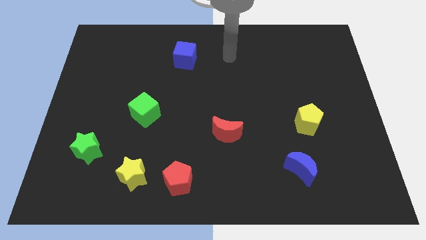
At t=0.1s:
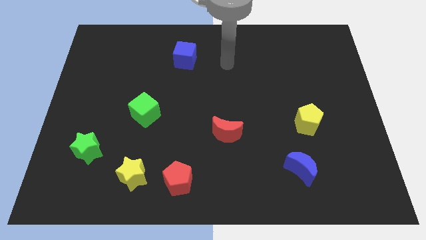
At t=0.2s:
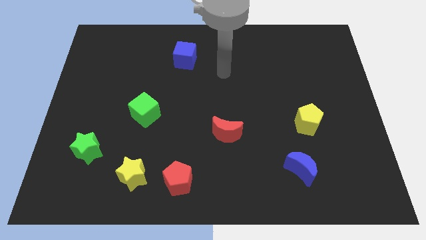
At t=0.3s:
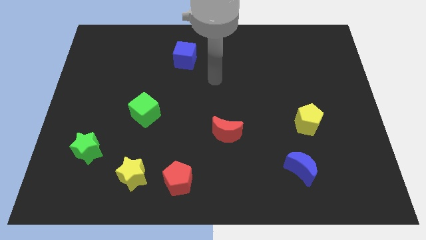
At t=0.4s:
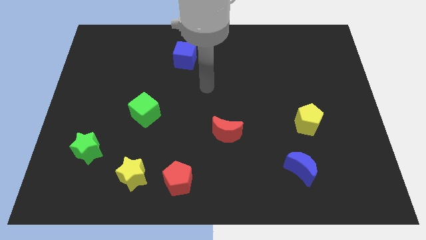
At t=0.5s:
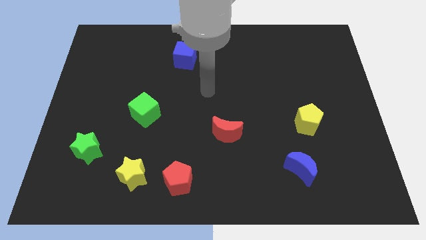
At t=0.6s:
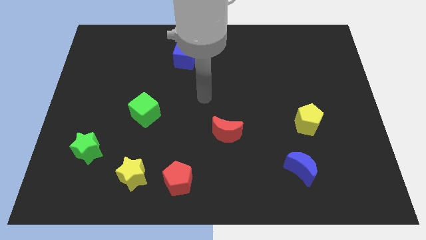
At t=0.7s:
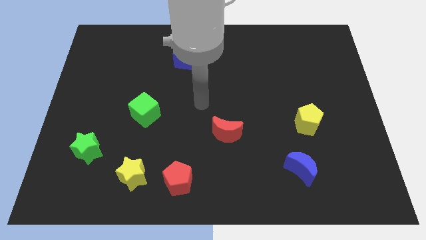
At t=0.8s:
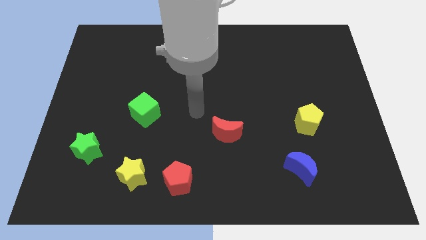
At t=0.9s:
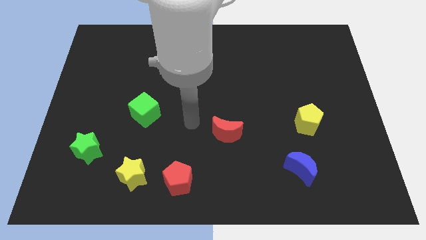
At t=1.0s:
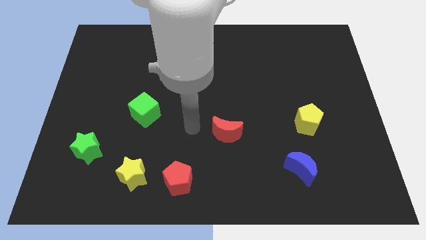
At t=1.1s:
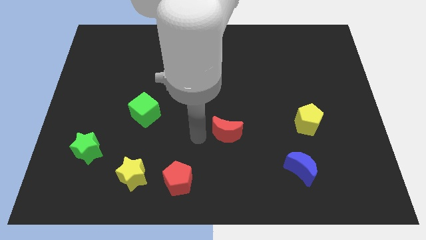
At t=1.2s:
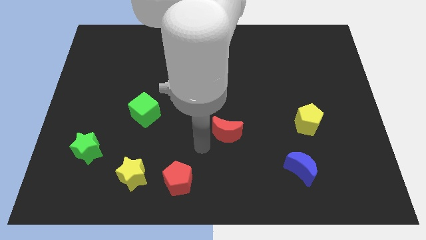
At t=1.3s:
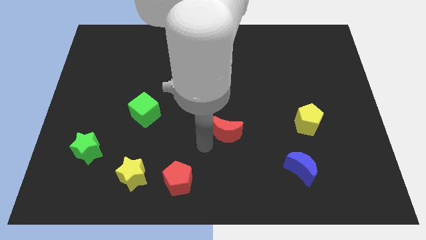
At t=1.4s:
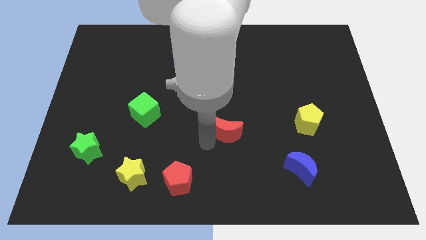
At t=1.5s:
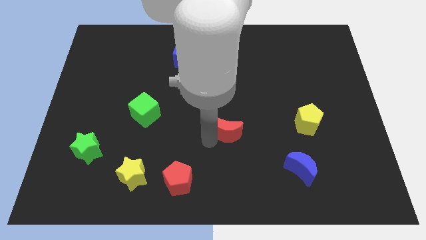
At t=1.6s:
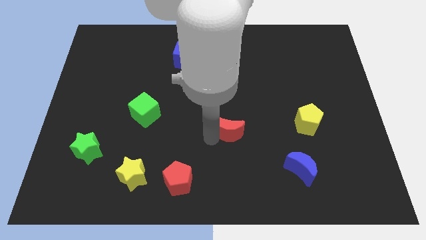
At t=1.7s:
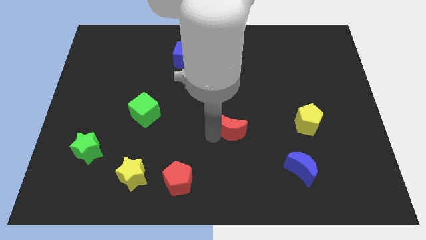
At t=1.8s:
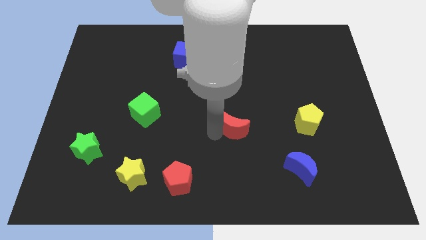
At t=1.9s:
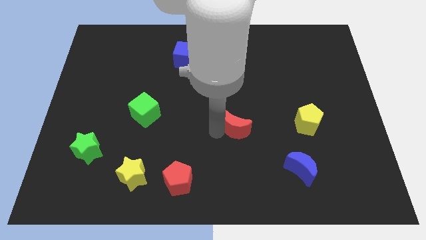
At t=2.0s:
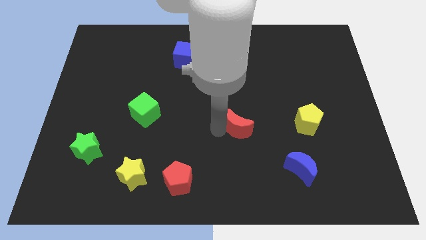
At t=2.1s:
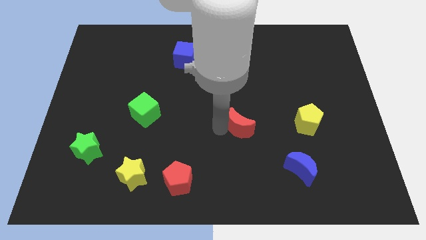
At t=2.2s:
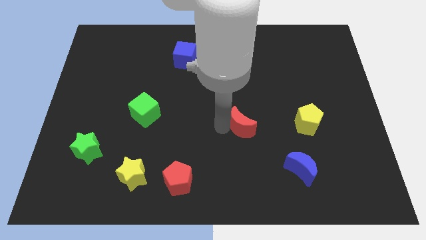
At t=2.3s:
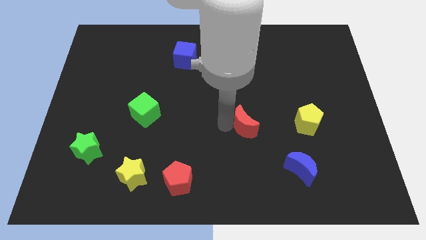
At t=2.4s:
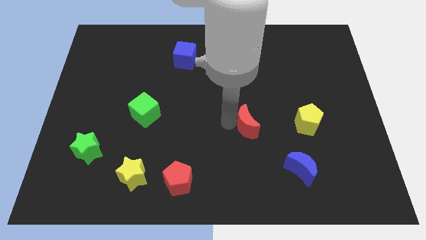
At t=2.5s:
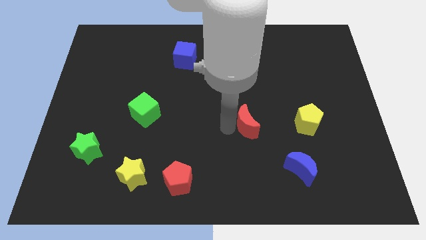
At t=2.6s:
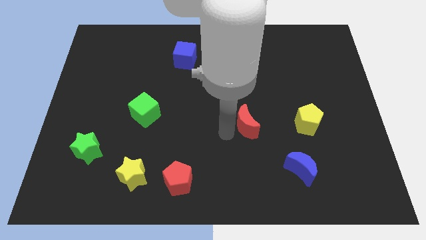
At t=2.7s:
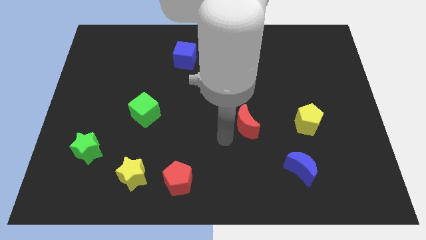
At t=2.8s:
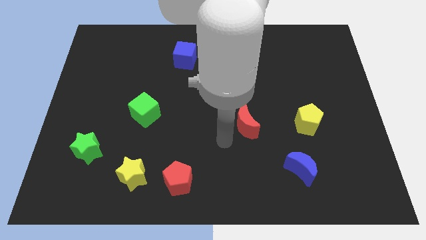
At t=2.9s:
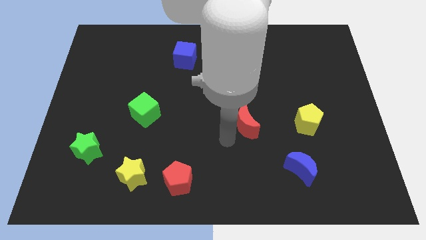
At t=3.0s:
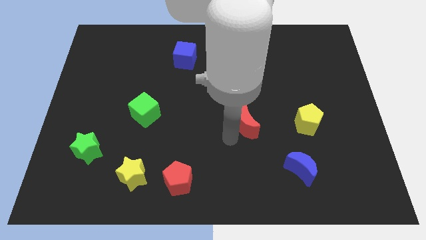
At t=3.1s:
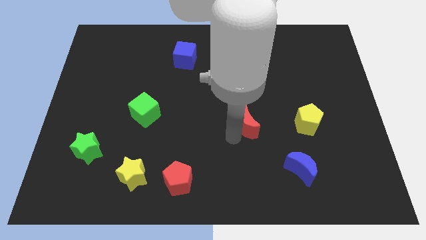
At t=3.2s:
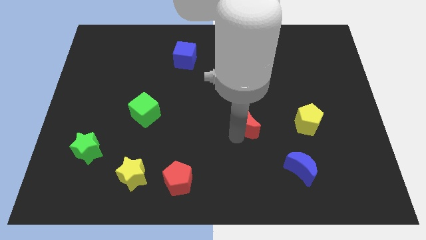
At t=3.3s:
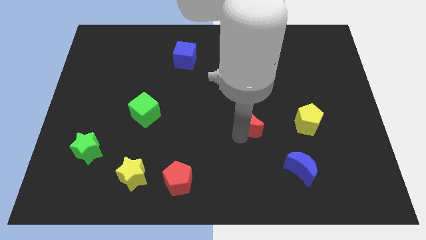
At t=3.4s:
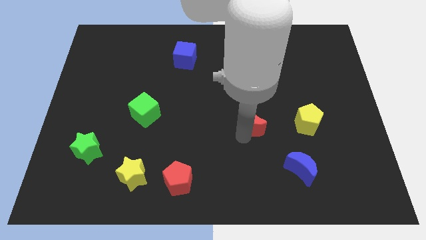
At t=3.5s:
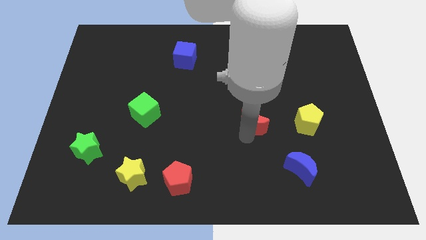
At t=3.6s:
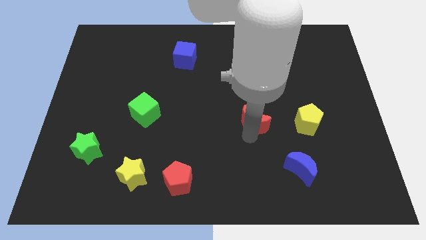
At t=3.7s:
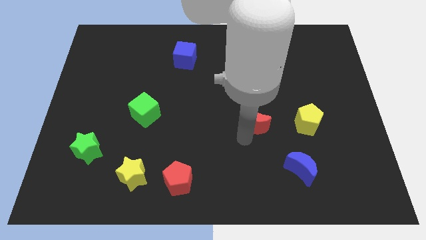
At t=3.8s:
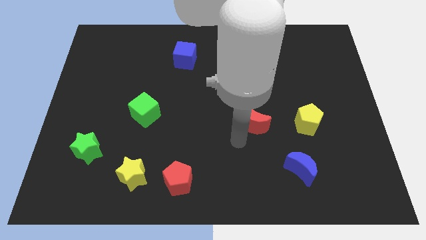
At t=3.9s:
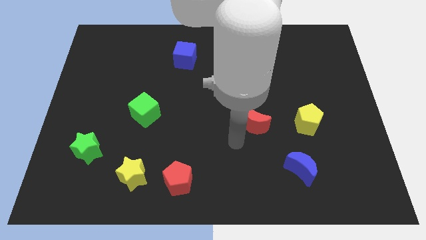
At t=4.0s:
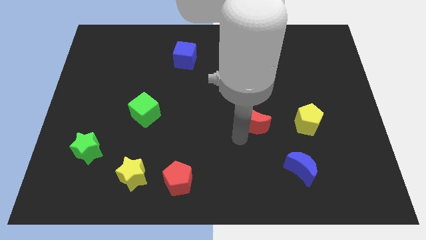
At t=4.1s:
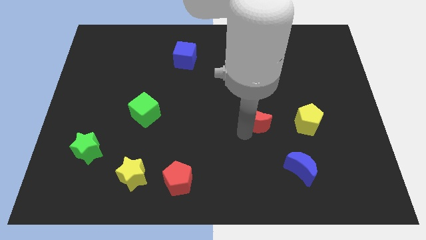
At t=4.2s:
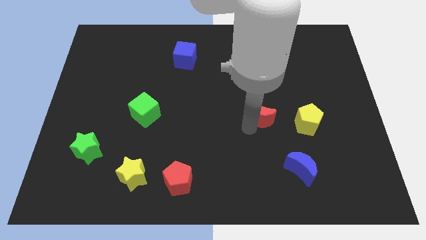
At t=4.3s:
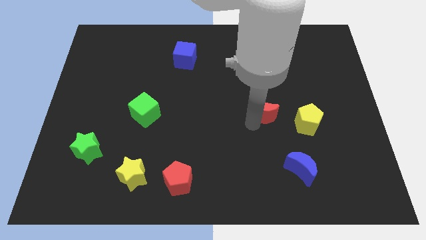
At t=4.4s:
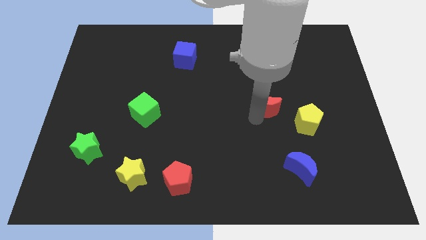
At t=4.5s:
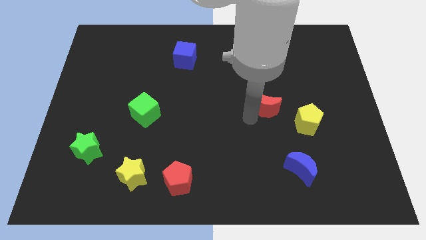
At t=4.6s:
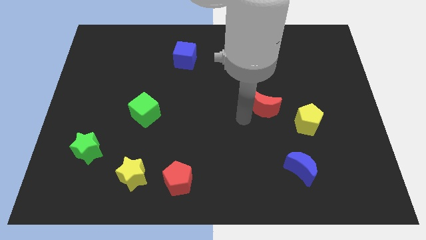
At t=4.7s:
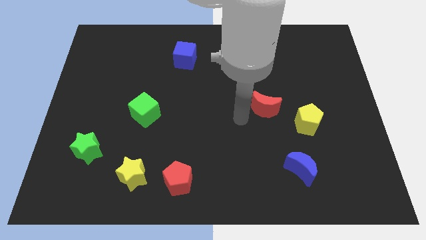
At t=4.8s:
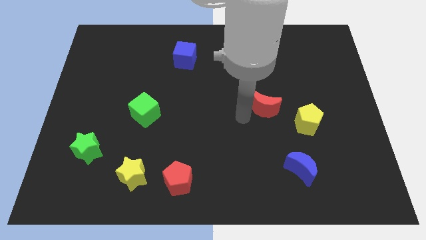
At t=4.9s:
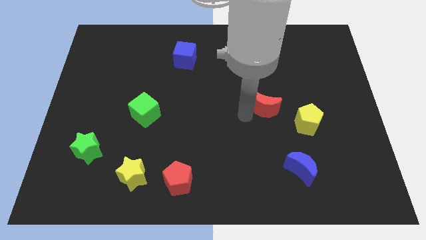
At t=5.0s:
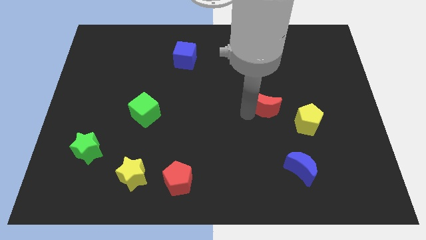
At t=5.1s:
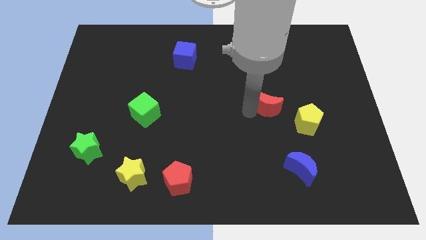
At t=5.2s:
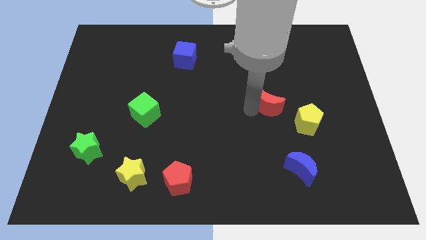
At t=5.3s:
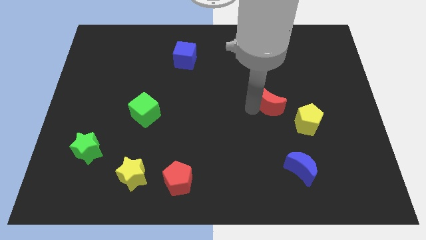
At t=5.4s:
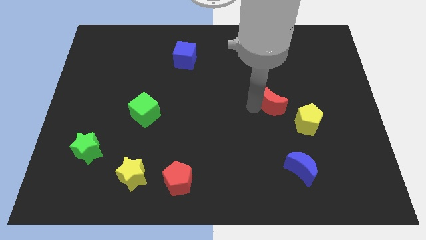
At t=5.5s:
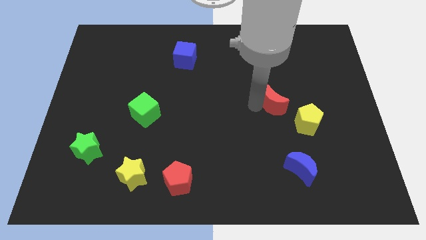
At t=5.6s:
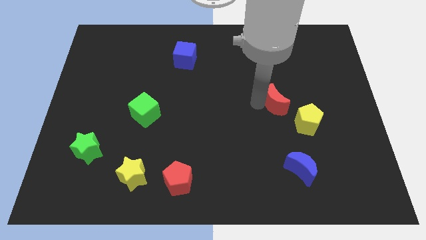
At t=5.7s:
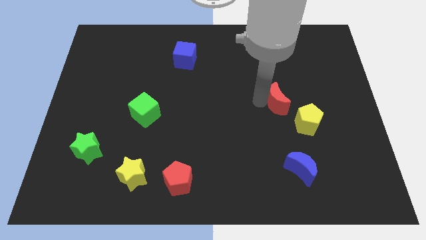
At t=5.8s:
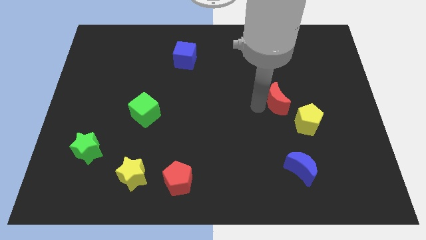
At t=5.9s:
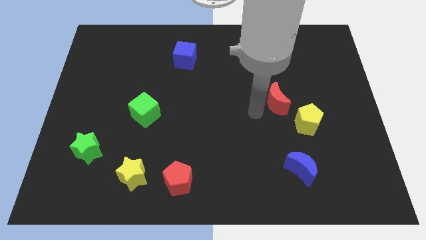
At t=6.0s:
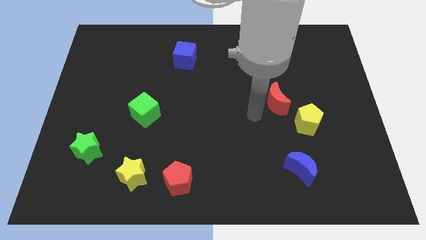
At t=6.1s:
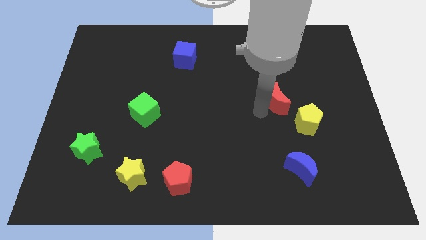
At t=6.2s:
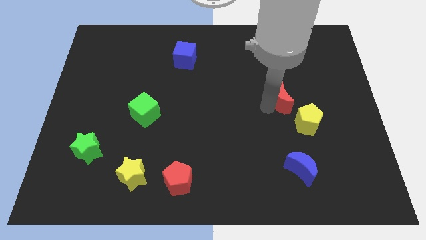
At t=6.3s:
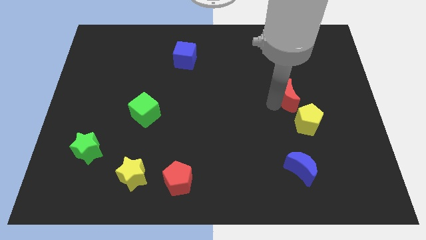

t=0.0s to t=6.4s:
put the red moon to the top of the yellow pentagon

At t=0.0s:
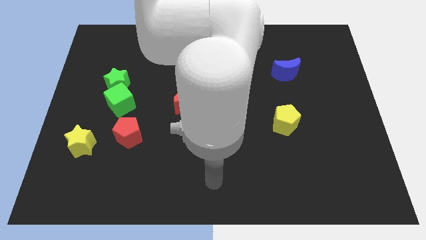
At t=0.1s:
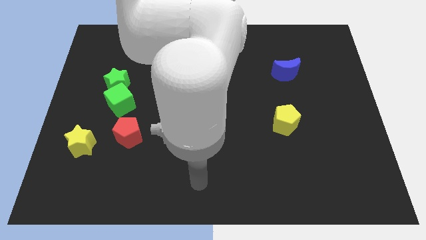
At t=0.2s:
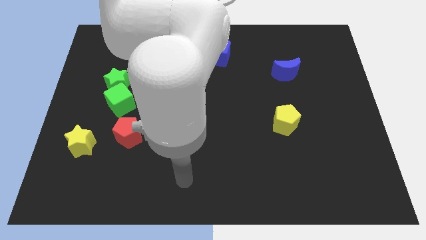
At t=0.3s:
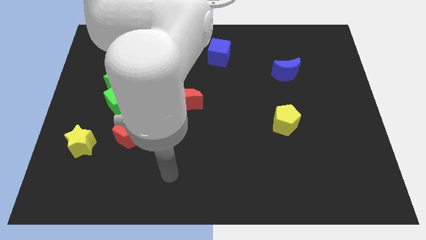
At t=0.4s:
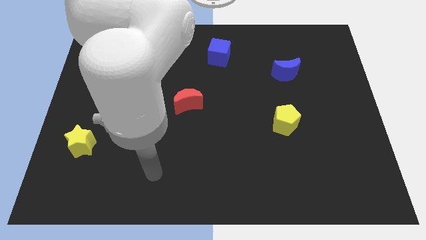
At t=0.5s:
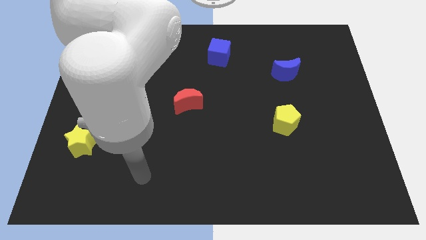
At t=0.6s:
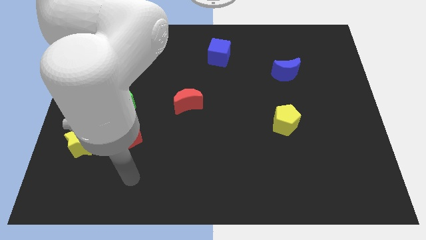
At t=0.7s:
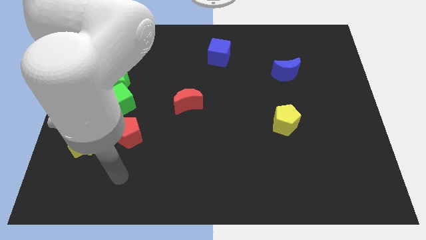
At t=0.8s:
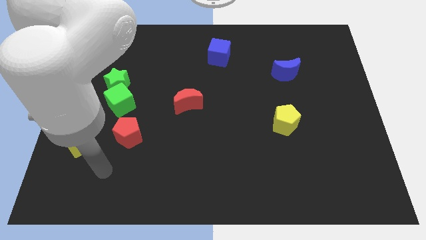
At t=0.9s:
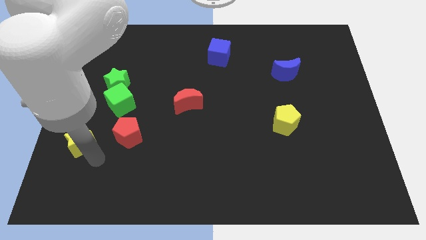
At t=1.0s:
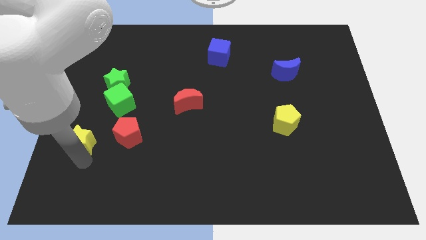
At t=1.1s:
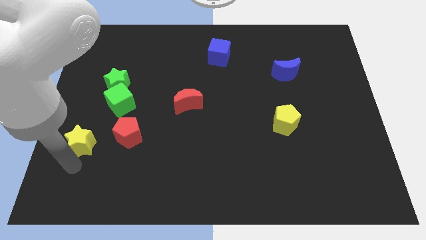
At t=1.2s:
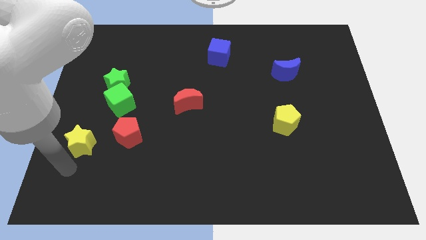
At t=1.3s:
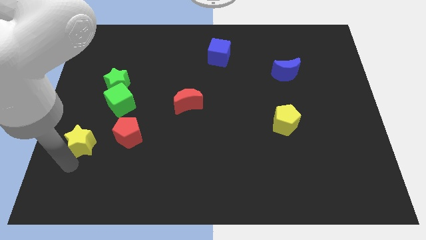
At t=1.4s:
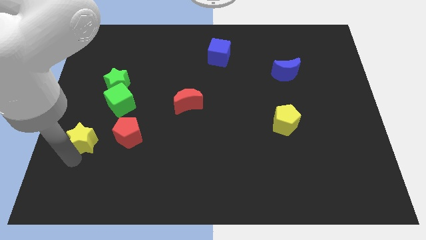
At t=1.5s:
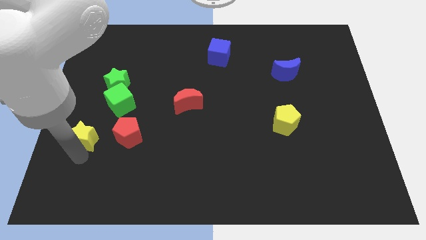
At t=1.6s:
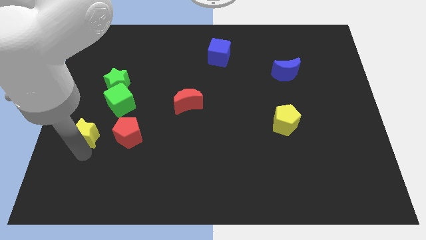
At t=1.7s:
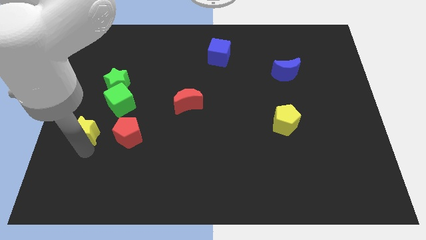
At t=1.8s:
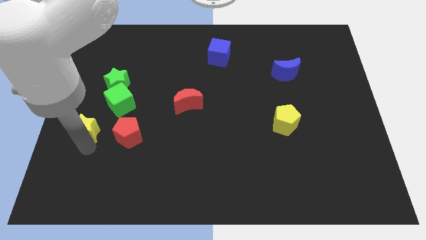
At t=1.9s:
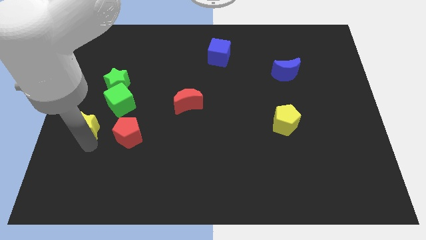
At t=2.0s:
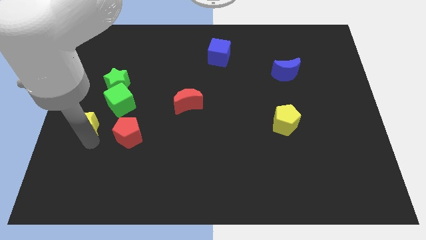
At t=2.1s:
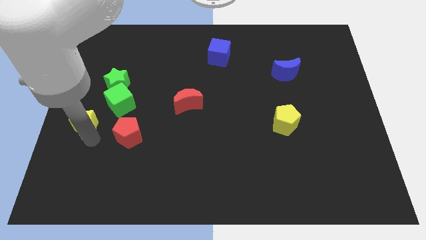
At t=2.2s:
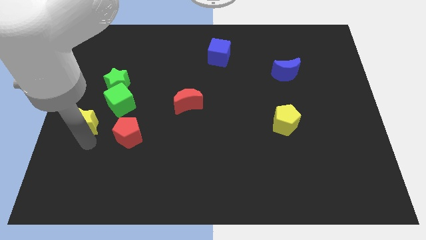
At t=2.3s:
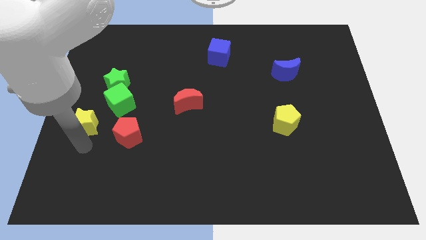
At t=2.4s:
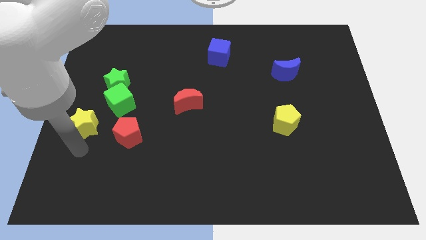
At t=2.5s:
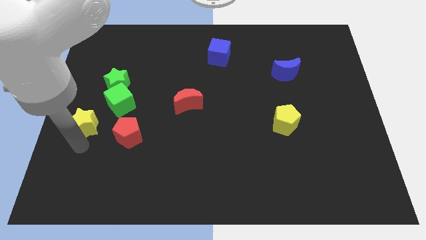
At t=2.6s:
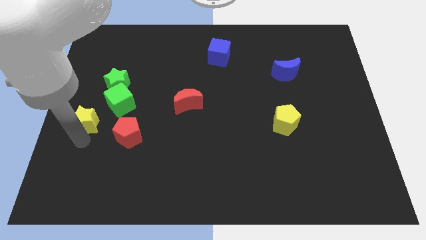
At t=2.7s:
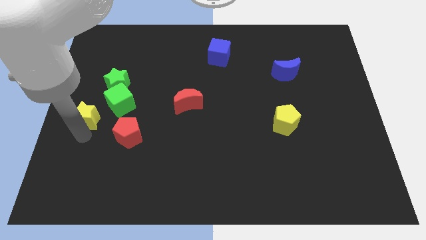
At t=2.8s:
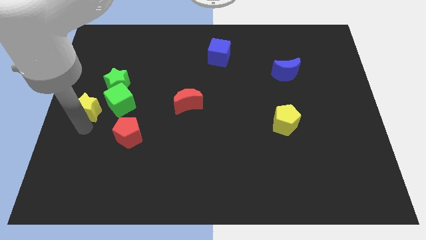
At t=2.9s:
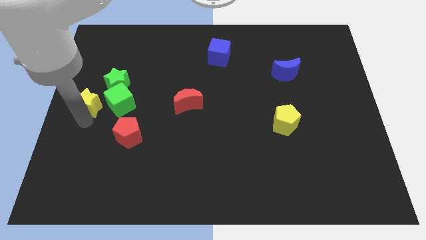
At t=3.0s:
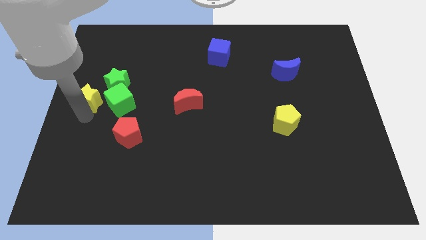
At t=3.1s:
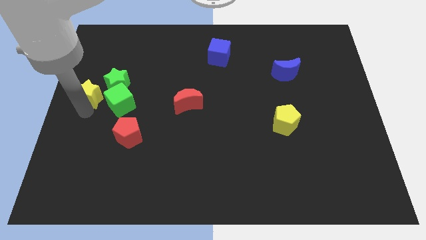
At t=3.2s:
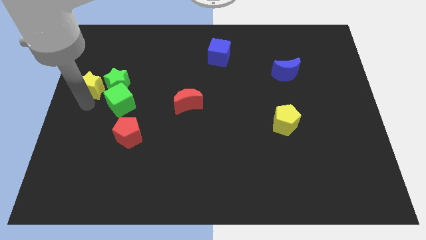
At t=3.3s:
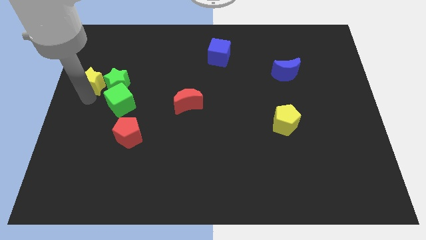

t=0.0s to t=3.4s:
push the yellow star to the top left of the green star
